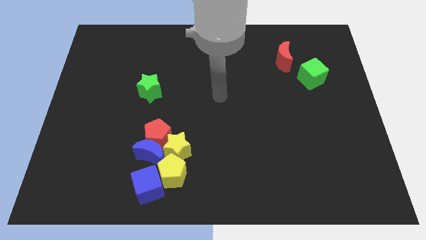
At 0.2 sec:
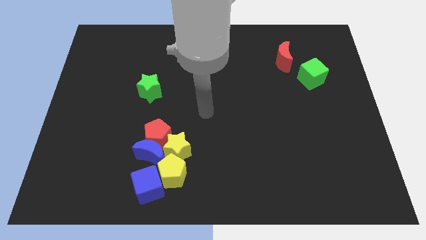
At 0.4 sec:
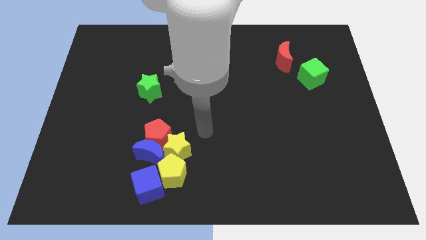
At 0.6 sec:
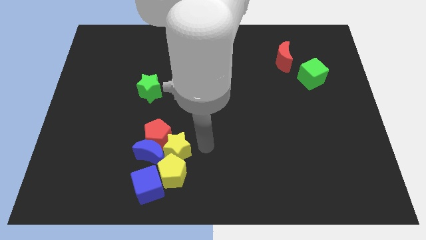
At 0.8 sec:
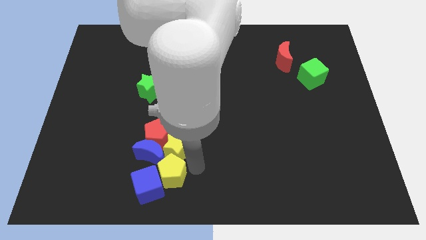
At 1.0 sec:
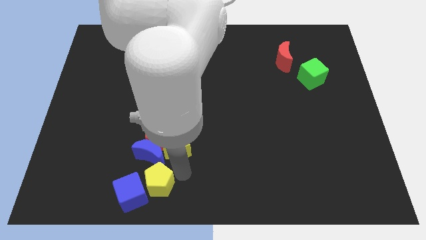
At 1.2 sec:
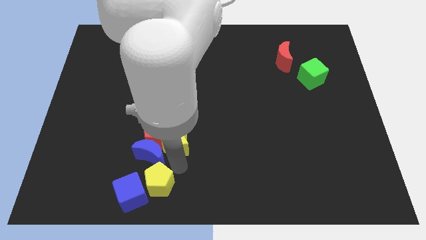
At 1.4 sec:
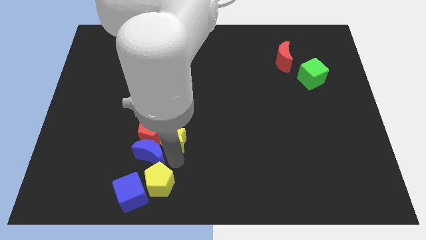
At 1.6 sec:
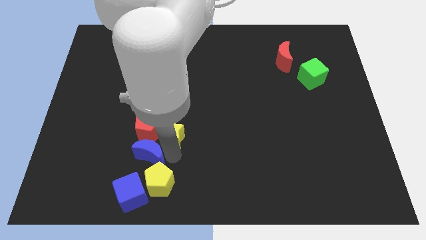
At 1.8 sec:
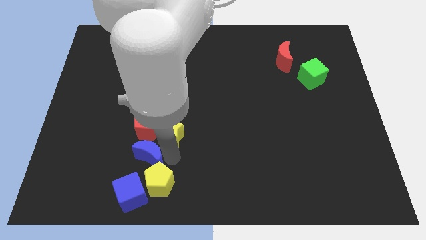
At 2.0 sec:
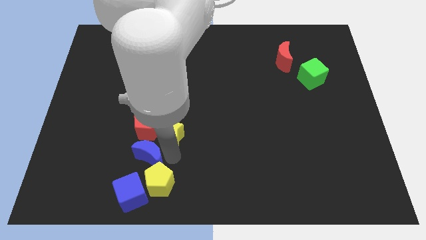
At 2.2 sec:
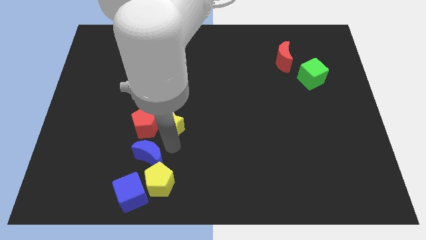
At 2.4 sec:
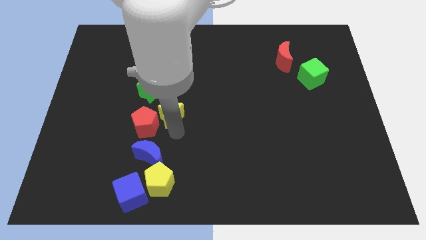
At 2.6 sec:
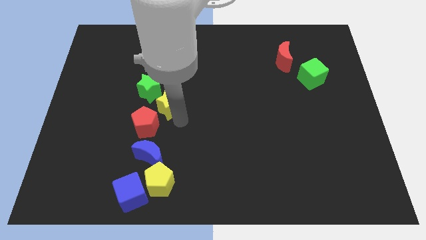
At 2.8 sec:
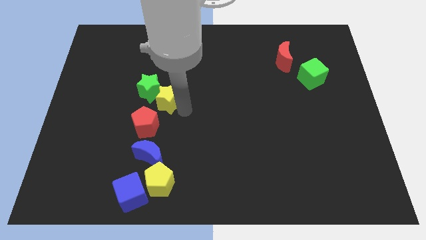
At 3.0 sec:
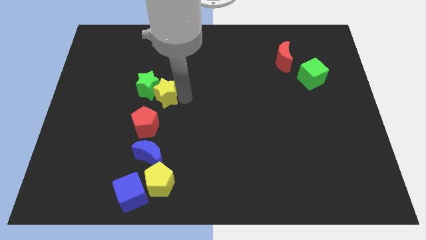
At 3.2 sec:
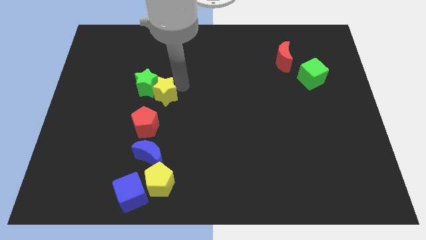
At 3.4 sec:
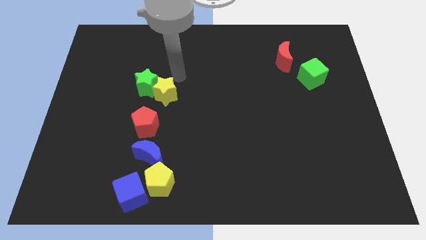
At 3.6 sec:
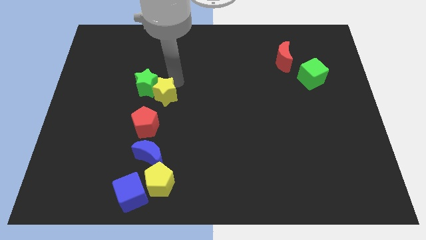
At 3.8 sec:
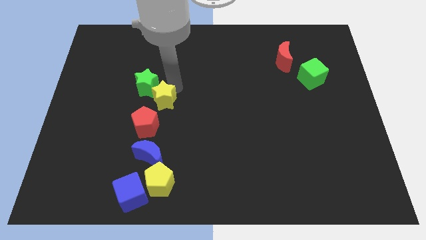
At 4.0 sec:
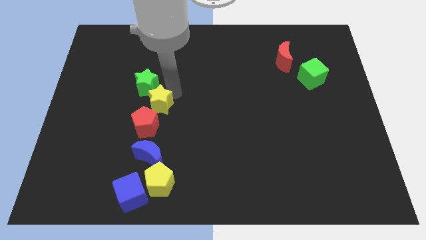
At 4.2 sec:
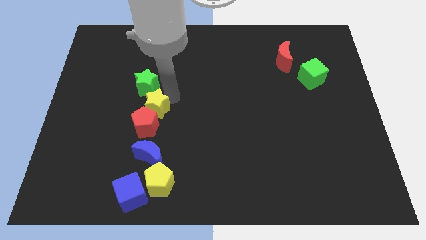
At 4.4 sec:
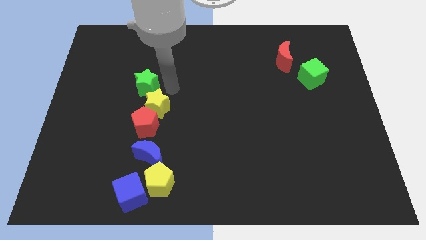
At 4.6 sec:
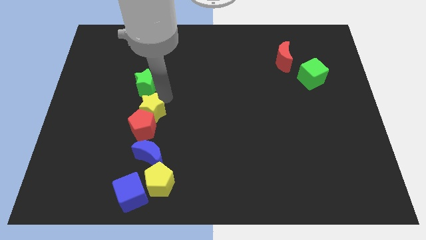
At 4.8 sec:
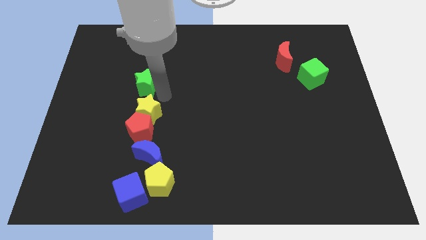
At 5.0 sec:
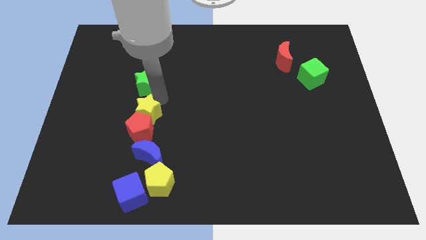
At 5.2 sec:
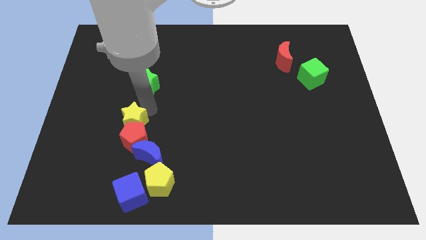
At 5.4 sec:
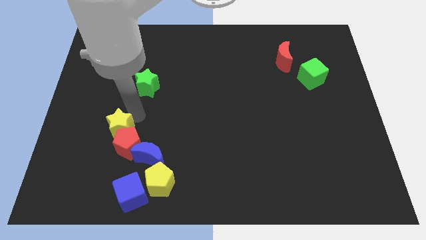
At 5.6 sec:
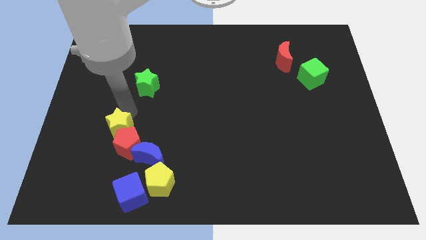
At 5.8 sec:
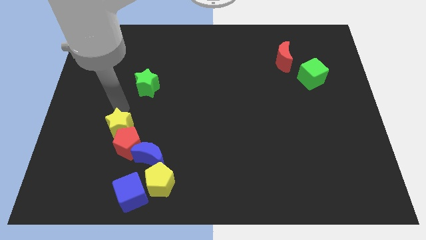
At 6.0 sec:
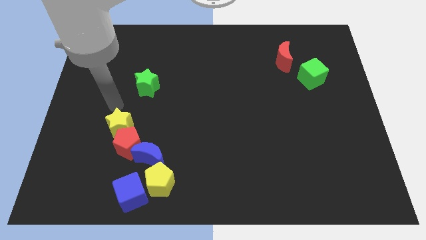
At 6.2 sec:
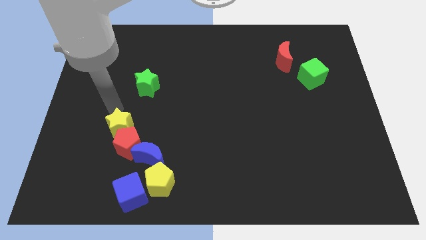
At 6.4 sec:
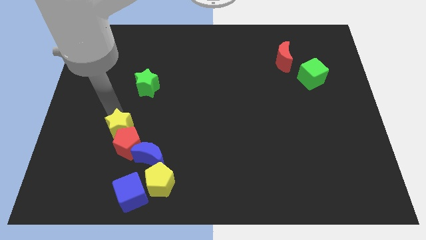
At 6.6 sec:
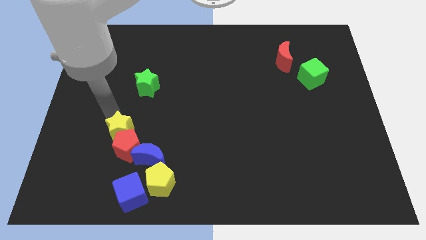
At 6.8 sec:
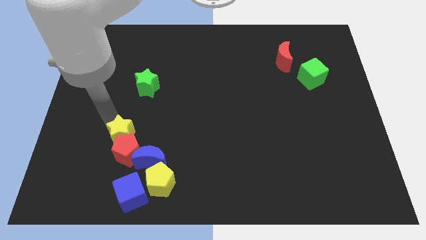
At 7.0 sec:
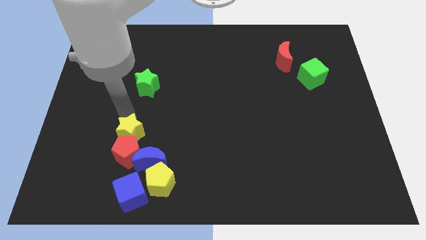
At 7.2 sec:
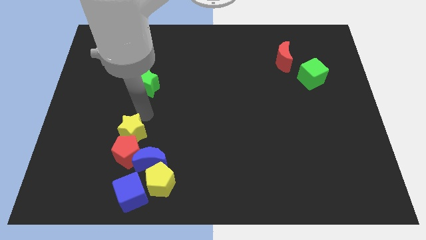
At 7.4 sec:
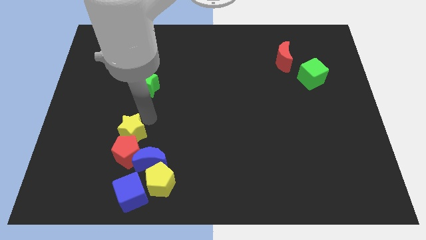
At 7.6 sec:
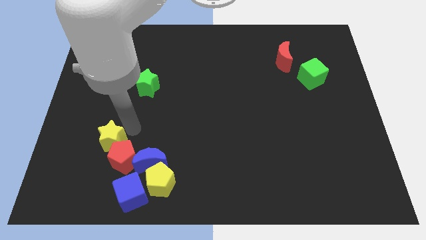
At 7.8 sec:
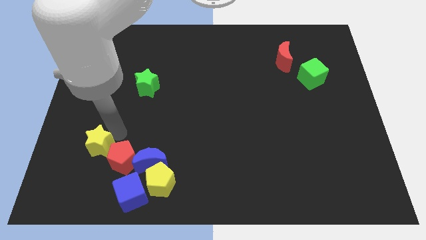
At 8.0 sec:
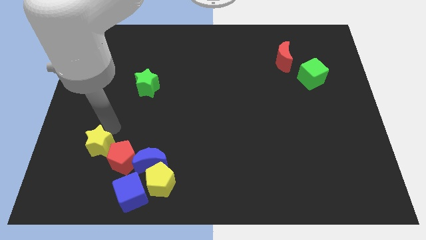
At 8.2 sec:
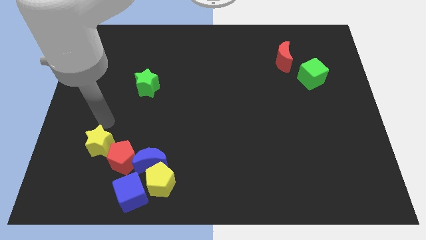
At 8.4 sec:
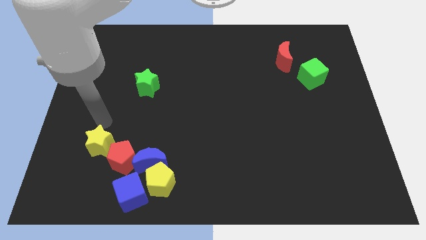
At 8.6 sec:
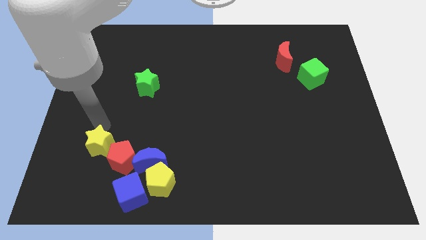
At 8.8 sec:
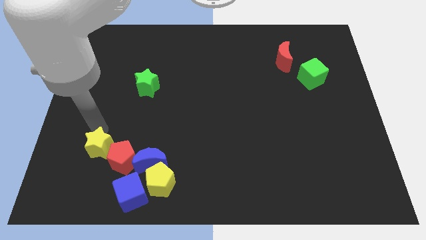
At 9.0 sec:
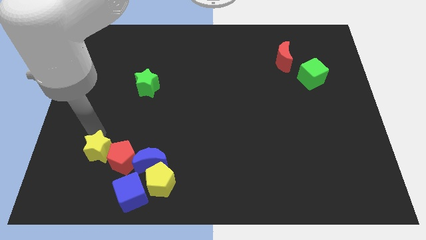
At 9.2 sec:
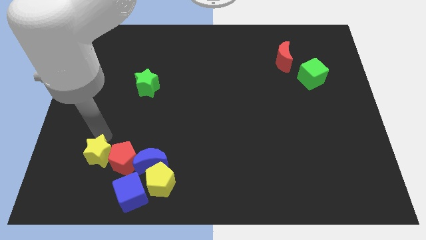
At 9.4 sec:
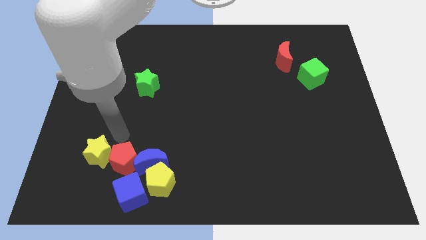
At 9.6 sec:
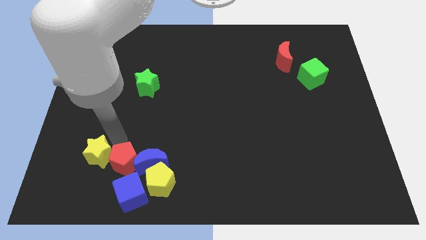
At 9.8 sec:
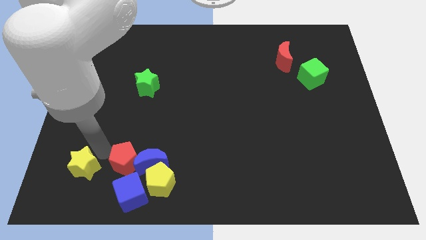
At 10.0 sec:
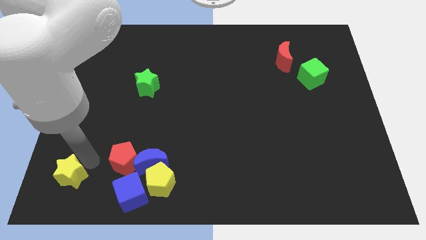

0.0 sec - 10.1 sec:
move the yellow star to the bottom left corner

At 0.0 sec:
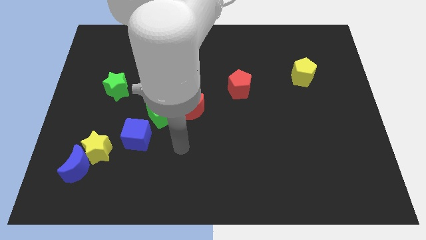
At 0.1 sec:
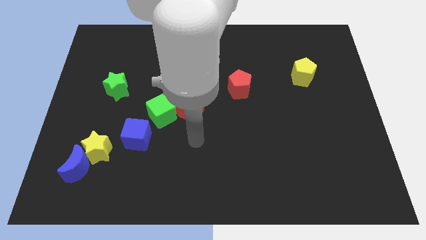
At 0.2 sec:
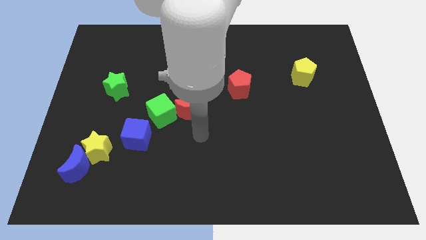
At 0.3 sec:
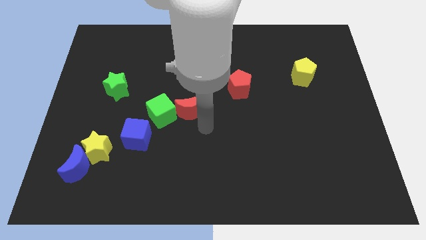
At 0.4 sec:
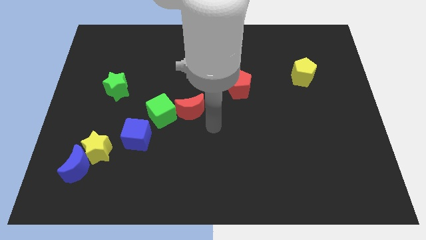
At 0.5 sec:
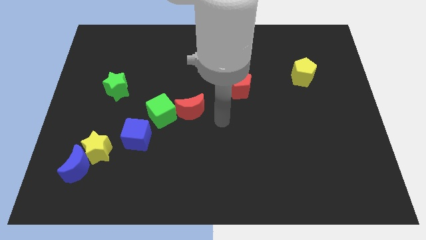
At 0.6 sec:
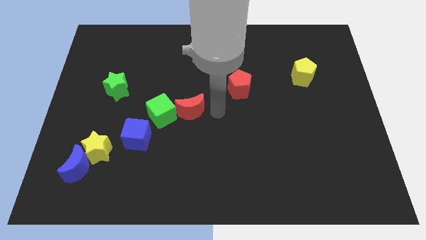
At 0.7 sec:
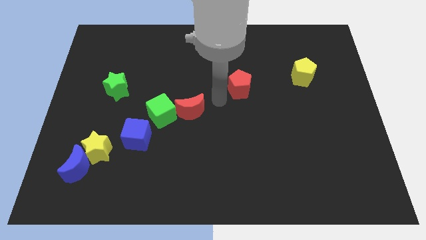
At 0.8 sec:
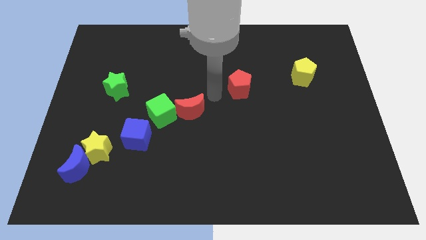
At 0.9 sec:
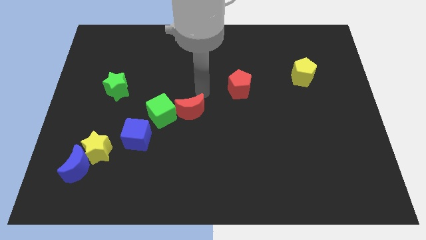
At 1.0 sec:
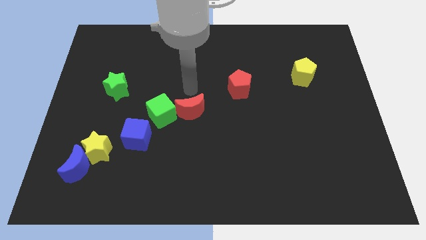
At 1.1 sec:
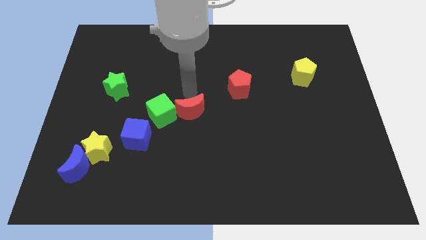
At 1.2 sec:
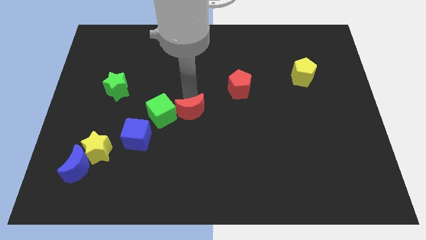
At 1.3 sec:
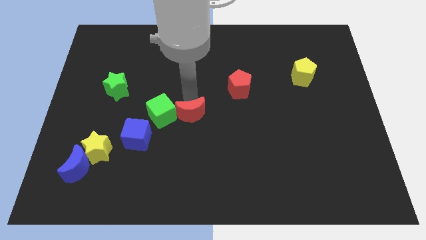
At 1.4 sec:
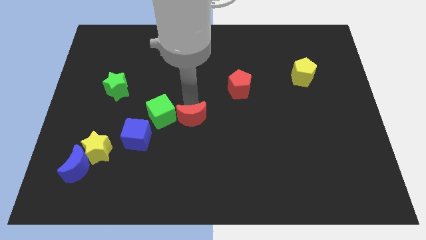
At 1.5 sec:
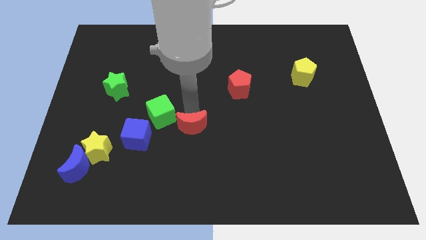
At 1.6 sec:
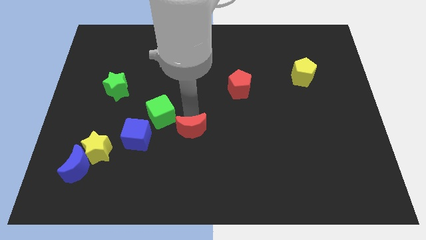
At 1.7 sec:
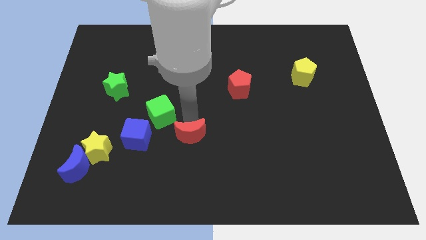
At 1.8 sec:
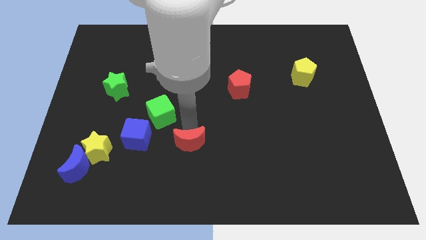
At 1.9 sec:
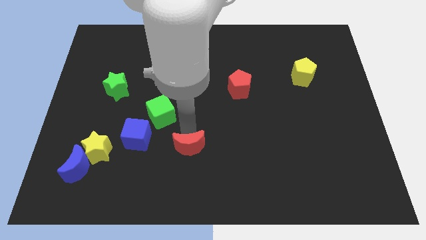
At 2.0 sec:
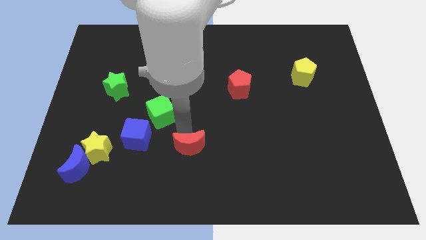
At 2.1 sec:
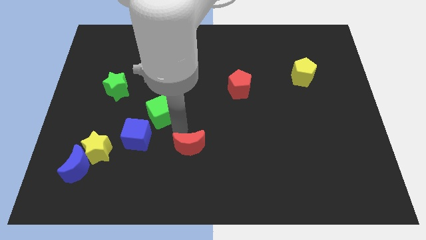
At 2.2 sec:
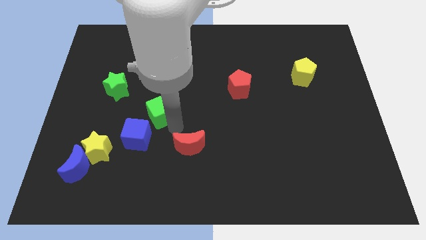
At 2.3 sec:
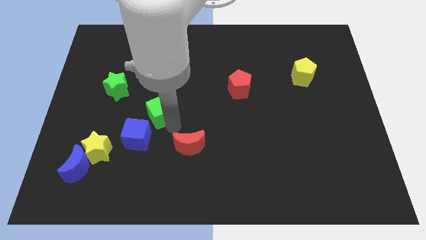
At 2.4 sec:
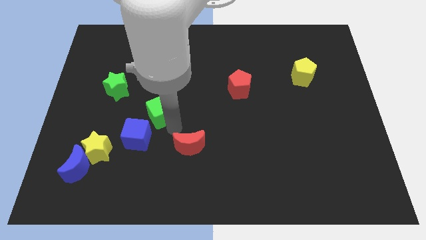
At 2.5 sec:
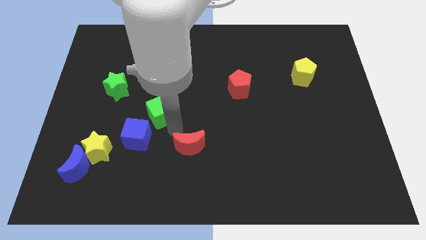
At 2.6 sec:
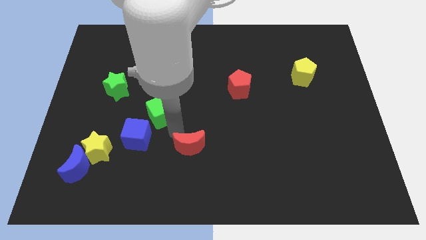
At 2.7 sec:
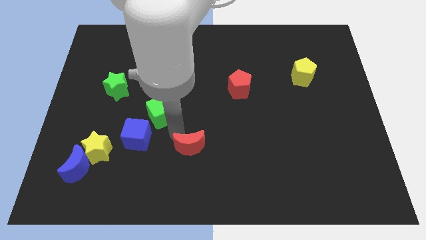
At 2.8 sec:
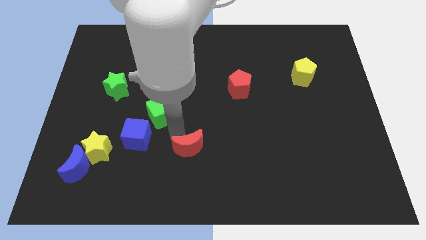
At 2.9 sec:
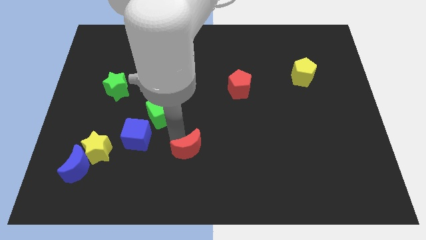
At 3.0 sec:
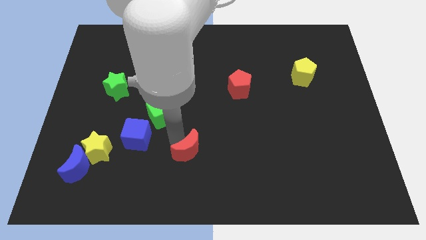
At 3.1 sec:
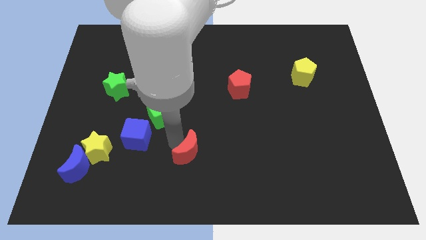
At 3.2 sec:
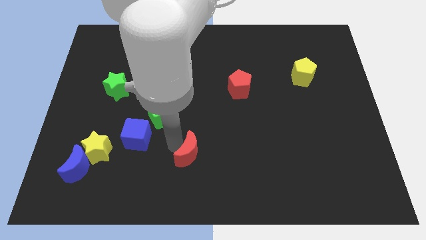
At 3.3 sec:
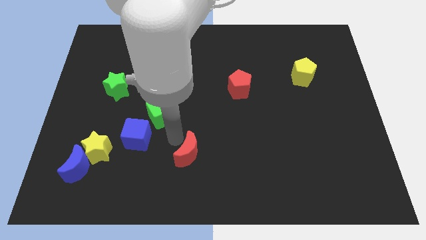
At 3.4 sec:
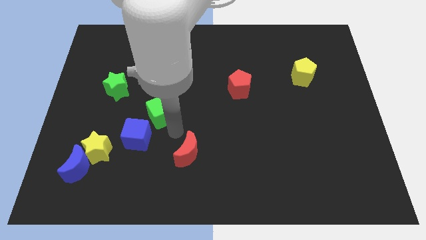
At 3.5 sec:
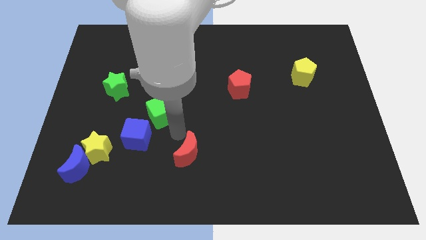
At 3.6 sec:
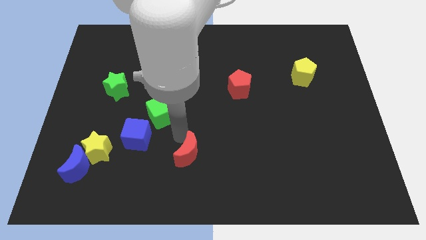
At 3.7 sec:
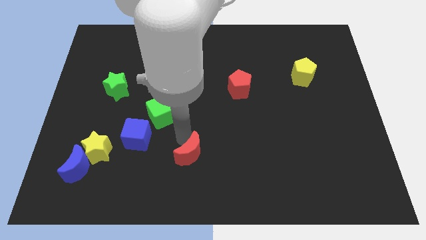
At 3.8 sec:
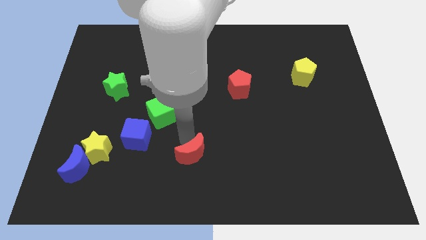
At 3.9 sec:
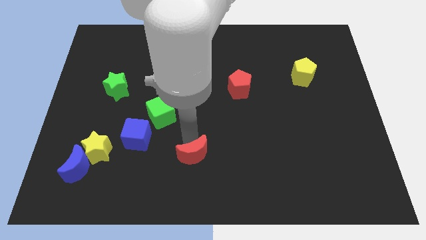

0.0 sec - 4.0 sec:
slide the red moon to the bottom side
